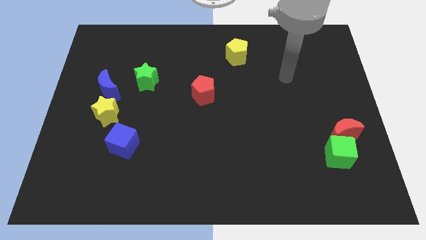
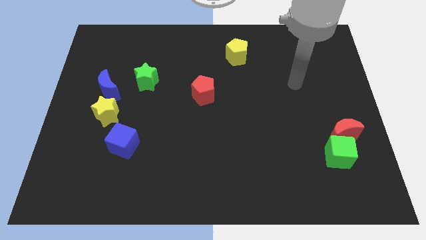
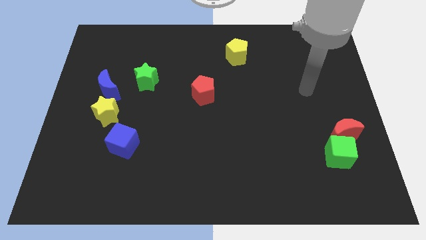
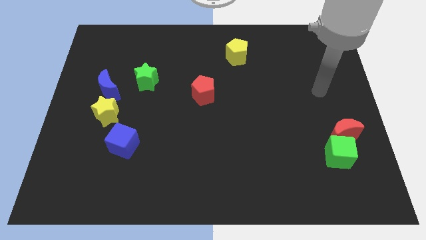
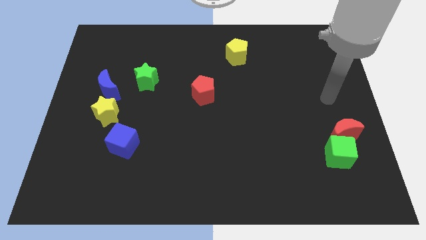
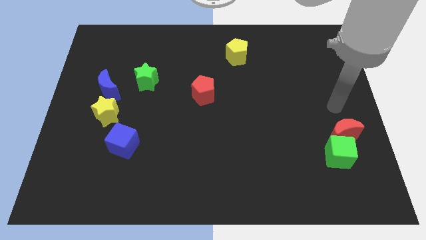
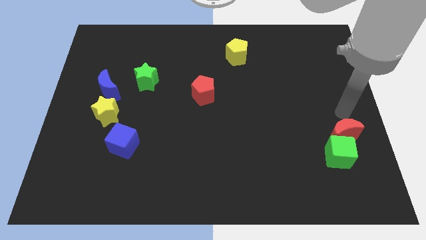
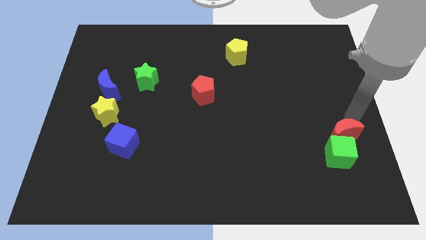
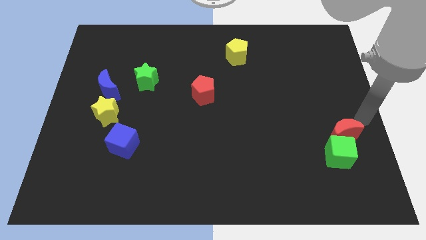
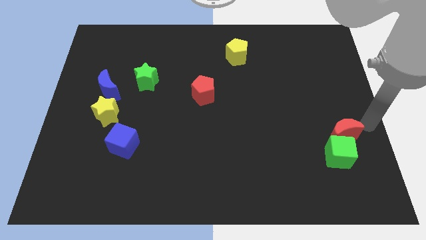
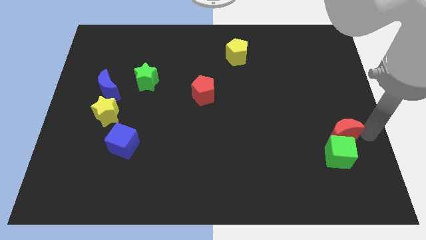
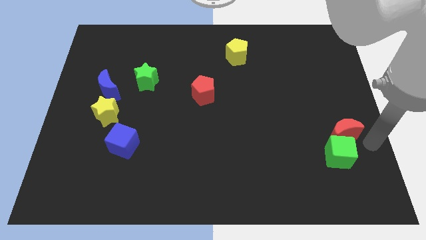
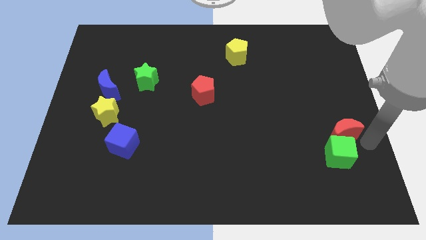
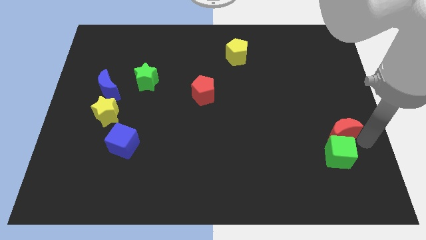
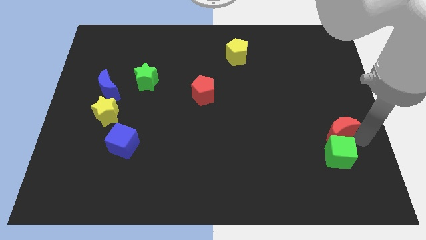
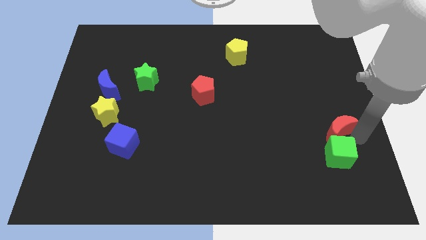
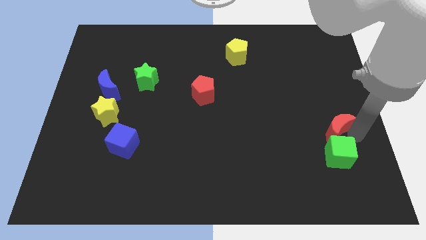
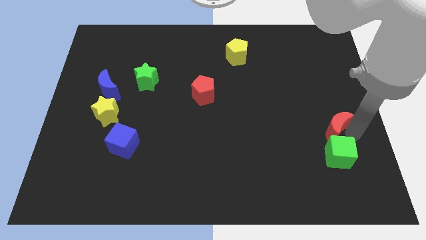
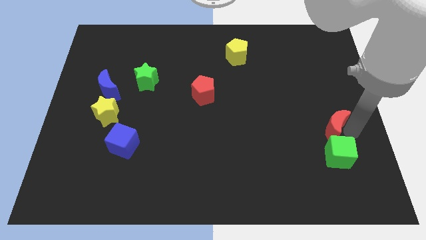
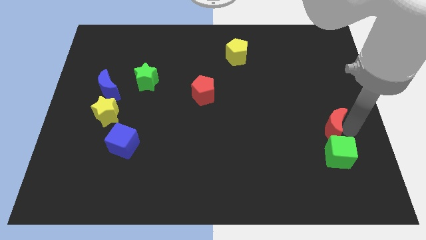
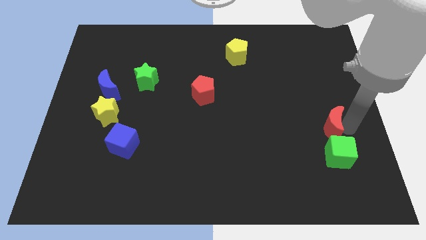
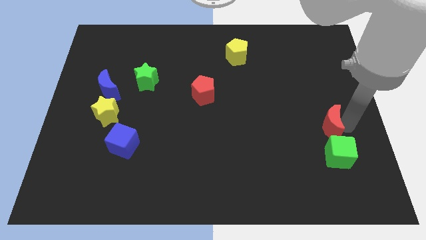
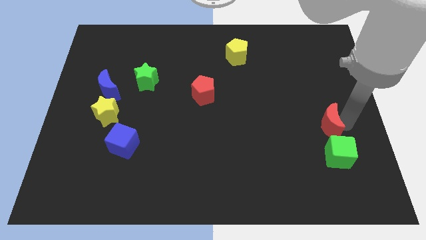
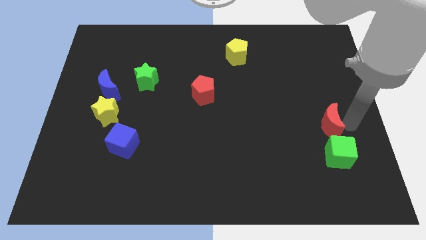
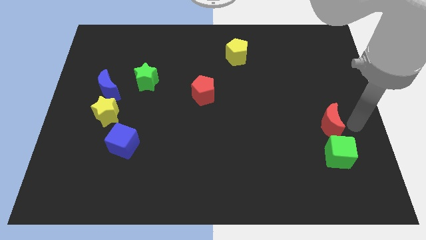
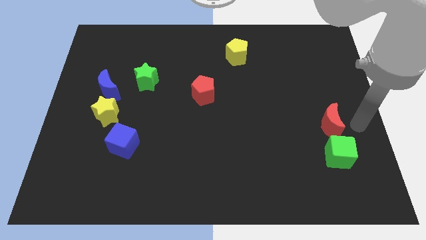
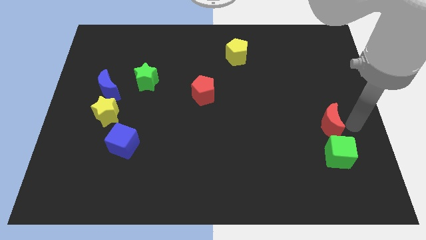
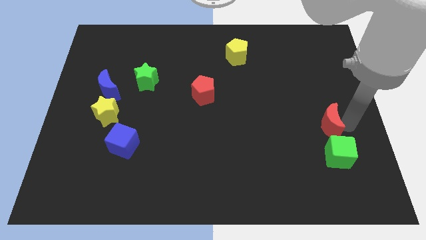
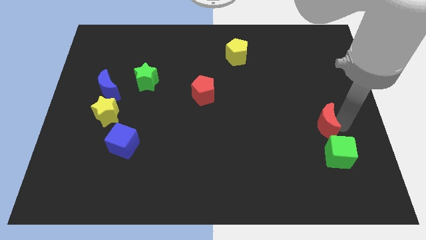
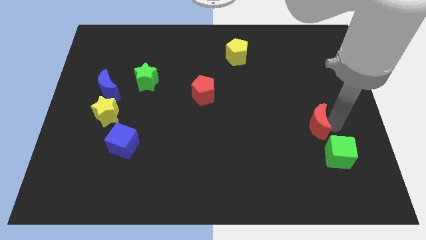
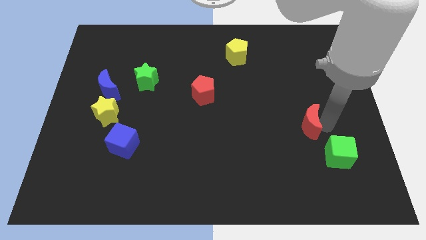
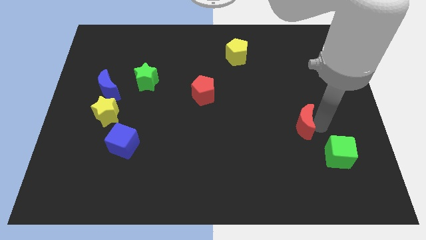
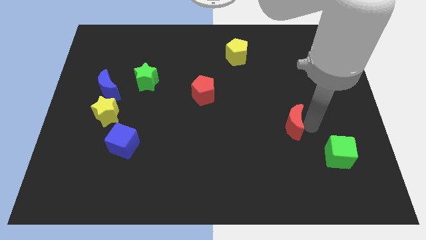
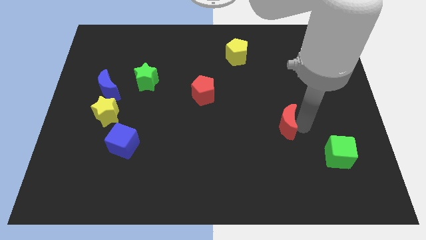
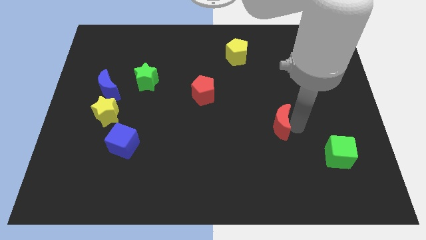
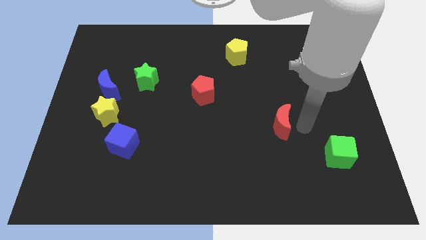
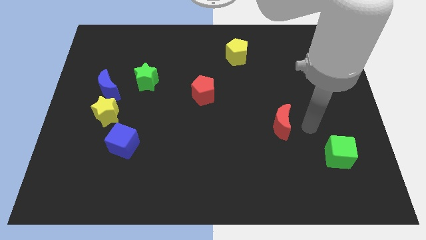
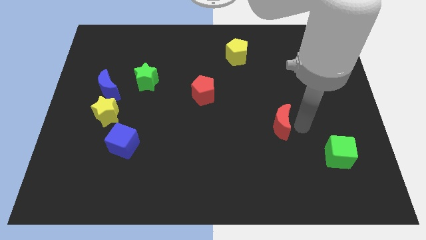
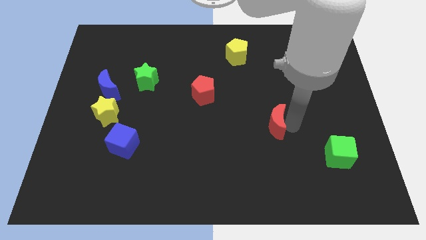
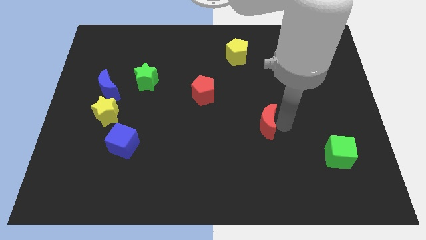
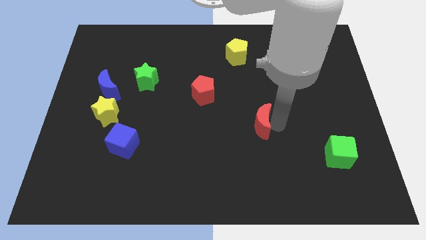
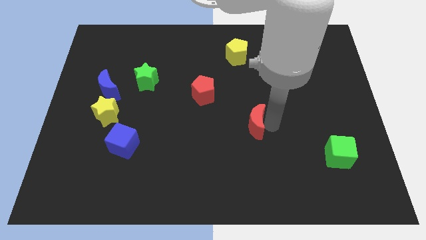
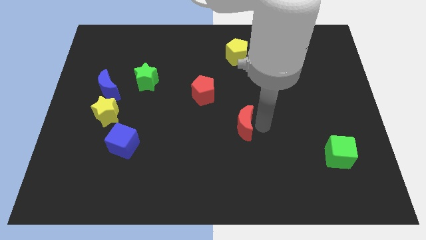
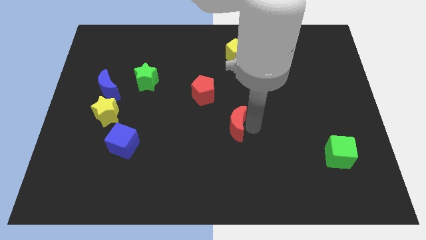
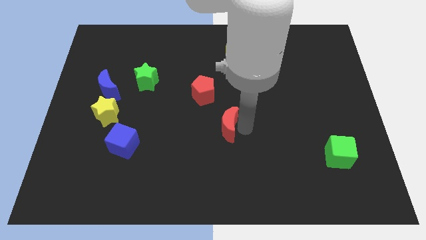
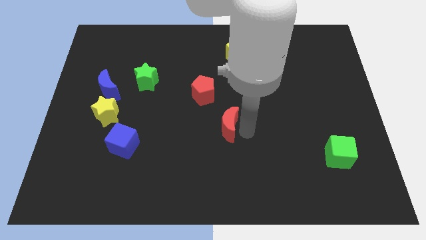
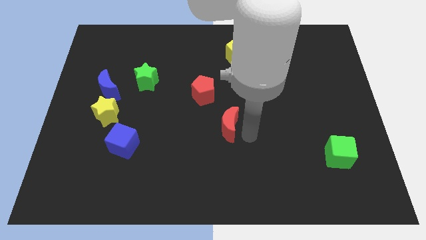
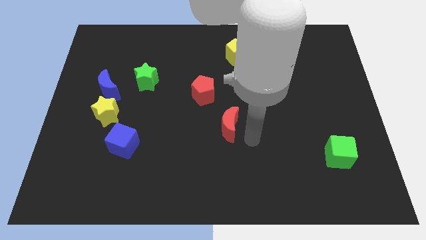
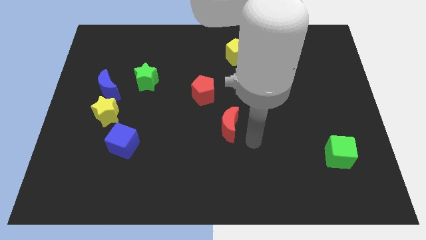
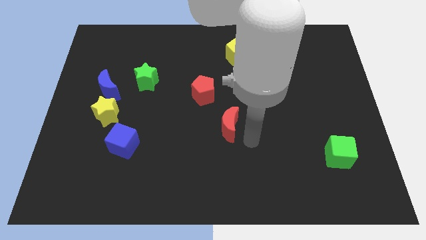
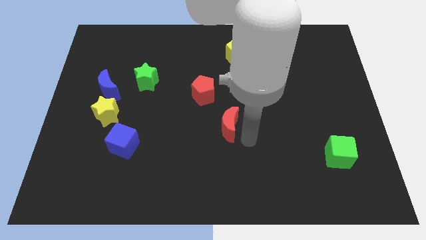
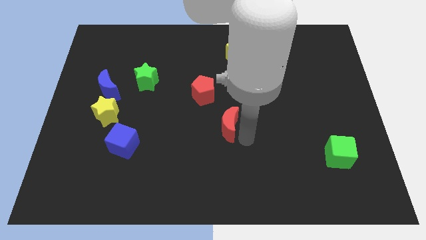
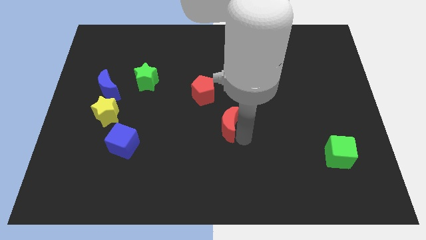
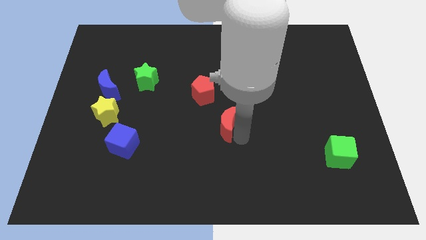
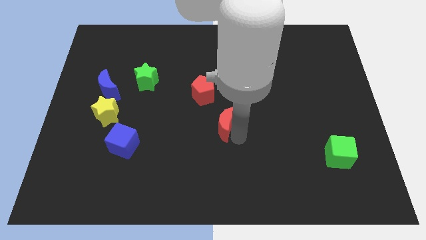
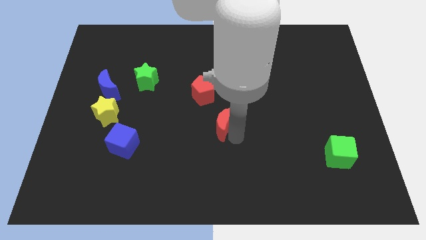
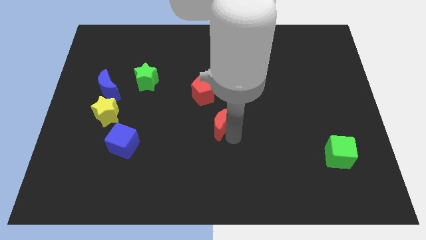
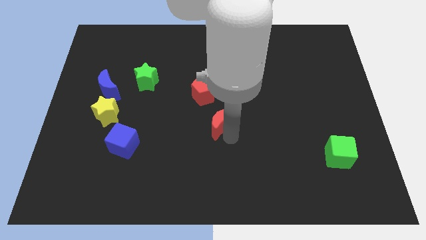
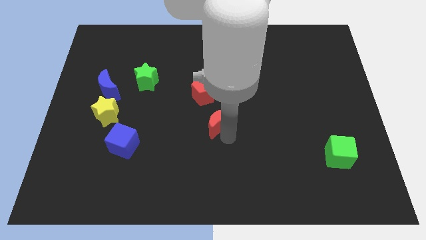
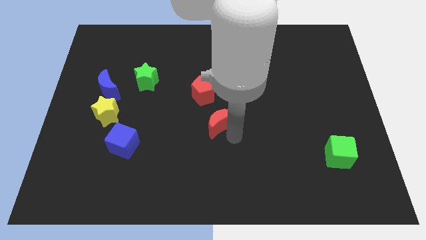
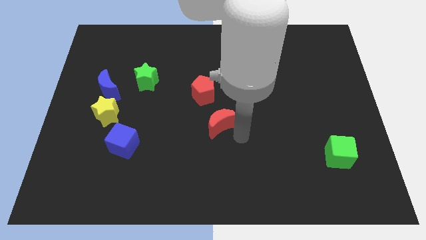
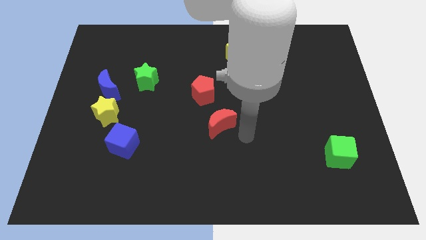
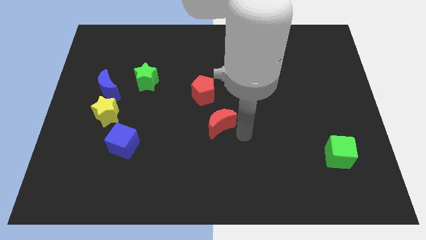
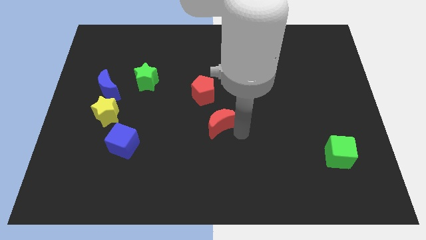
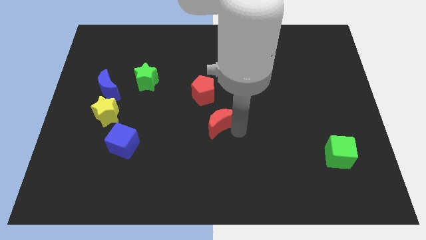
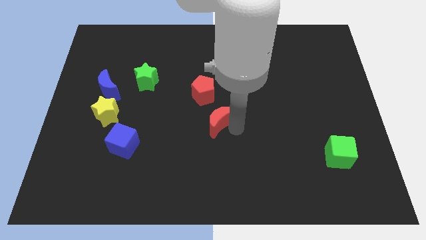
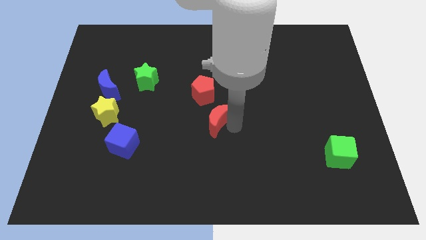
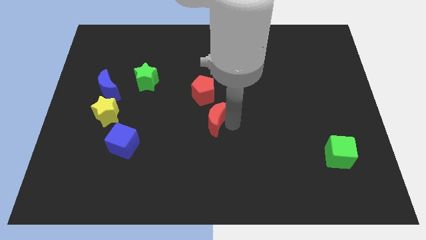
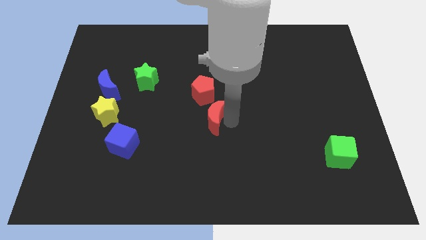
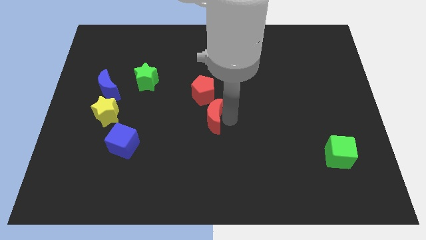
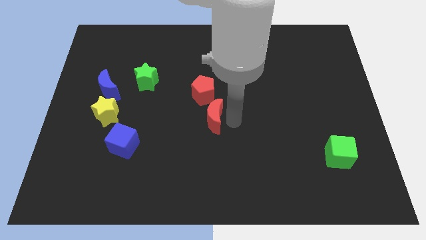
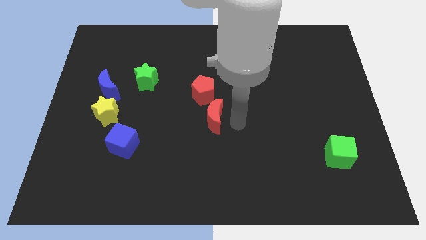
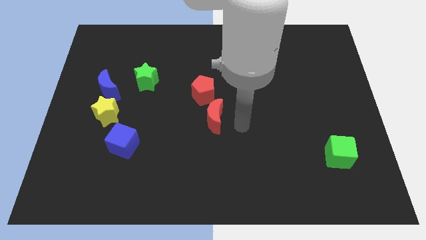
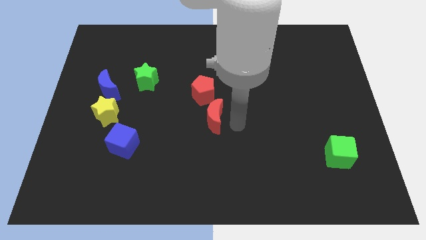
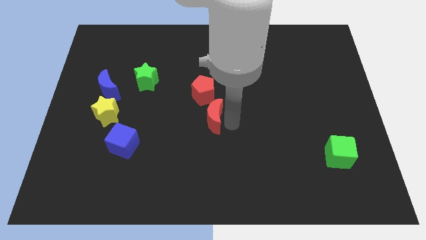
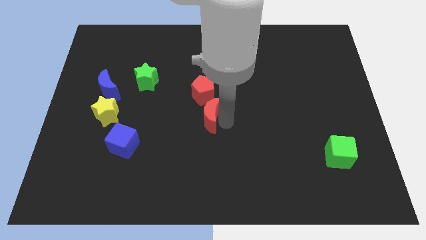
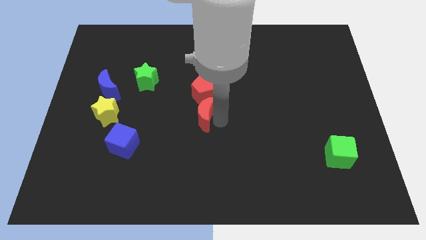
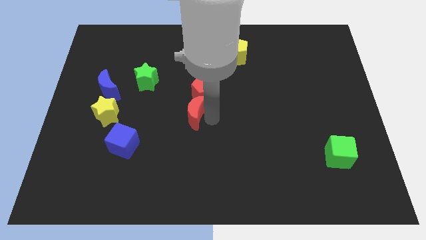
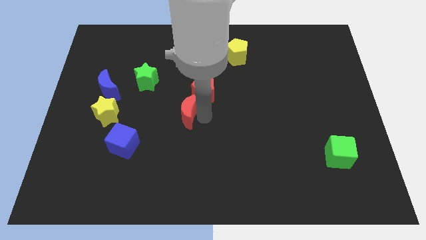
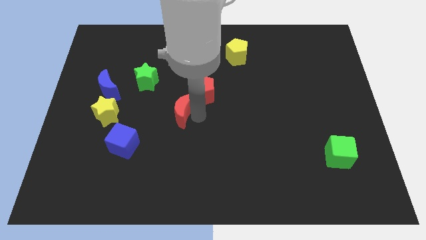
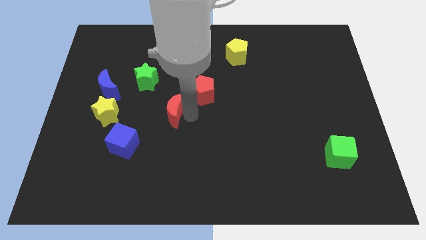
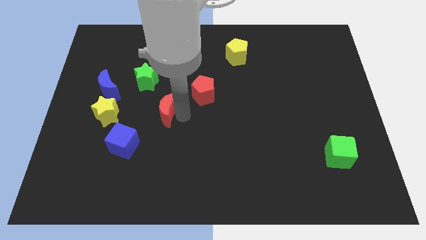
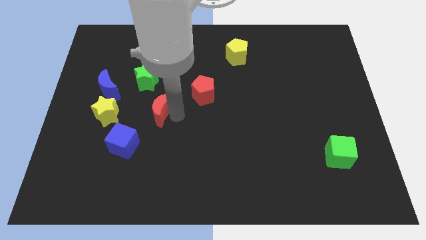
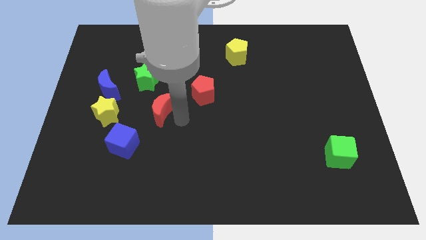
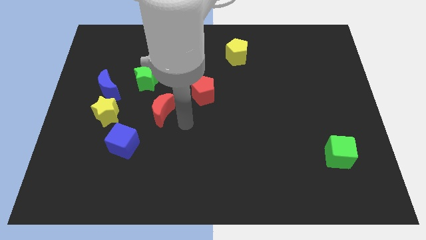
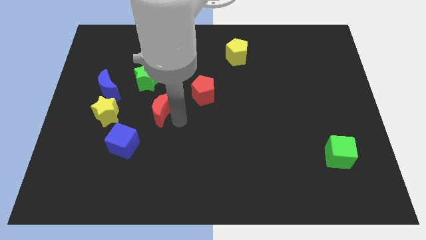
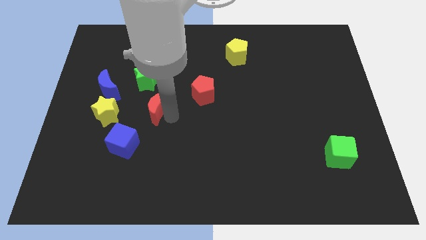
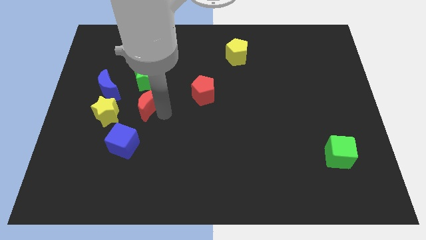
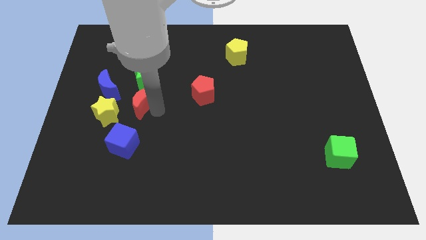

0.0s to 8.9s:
move the red moon diagonally up and to the right of the yellow star
